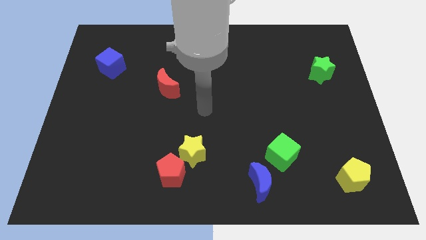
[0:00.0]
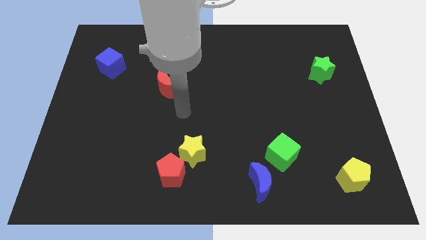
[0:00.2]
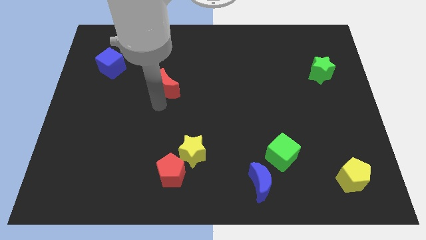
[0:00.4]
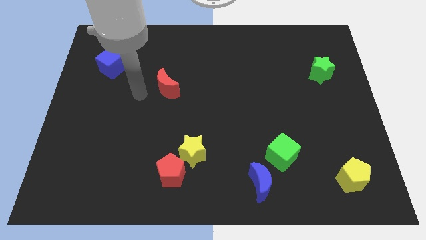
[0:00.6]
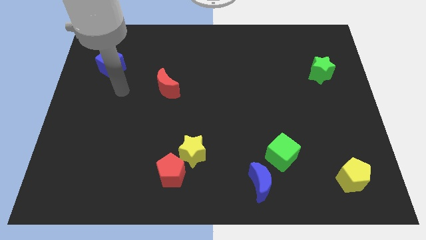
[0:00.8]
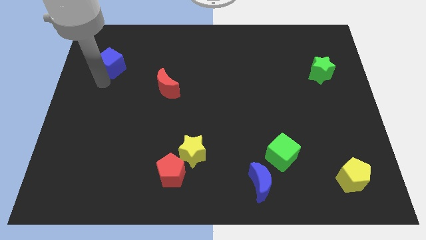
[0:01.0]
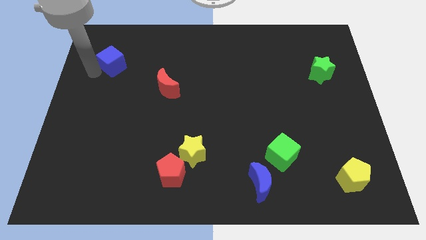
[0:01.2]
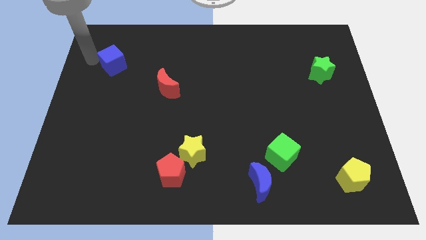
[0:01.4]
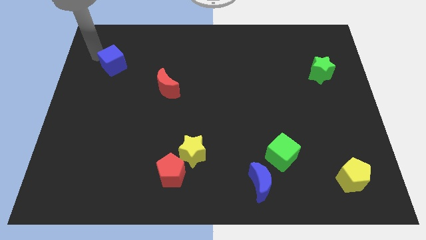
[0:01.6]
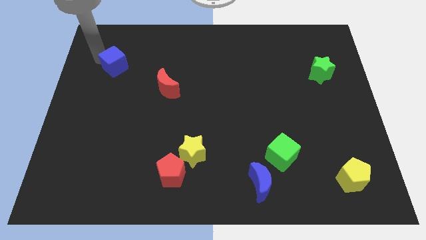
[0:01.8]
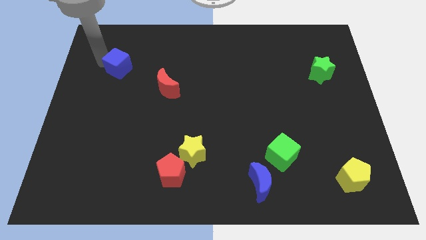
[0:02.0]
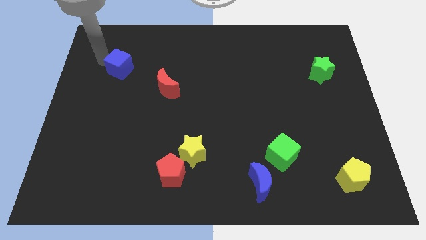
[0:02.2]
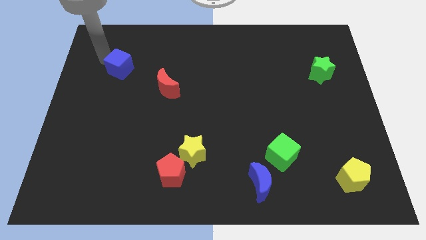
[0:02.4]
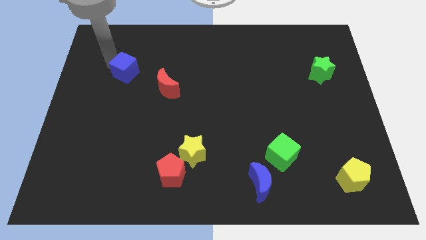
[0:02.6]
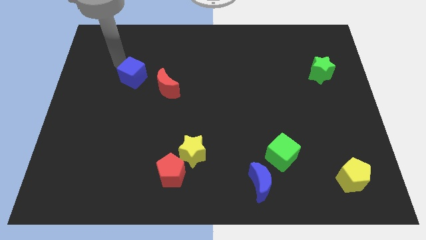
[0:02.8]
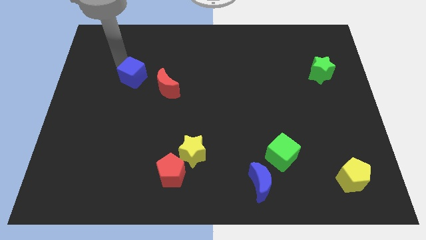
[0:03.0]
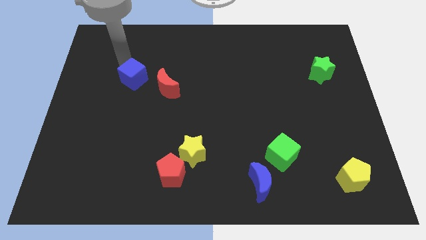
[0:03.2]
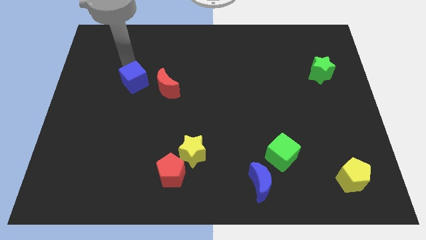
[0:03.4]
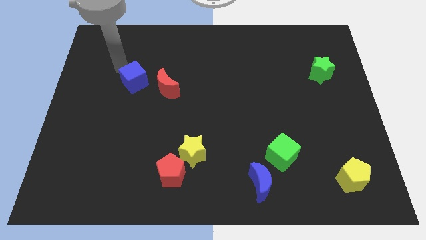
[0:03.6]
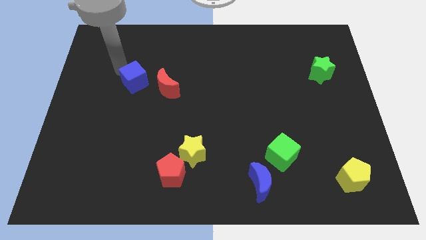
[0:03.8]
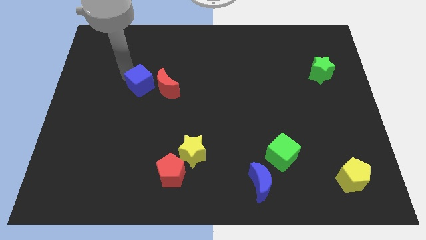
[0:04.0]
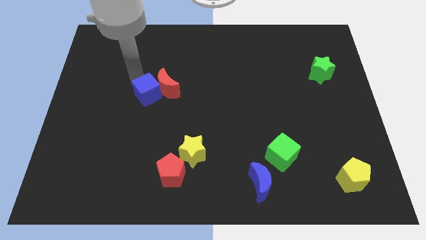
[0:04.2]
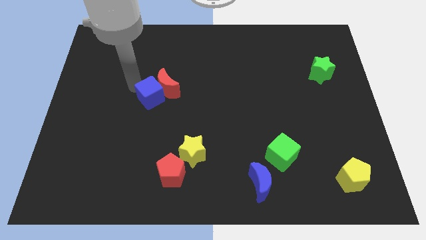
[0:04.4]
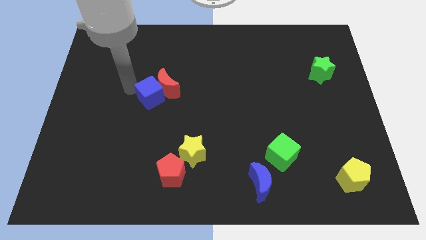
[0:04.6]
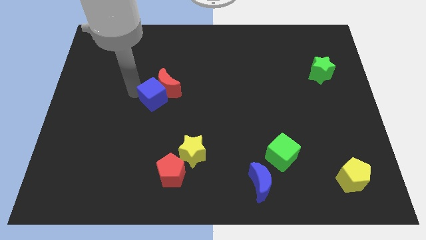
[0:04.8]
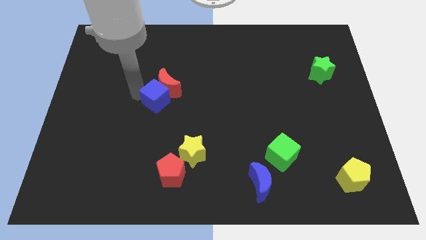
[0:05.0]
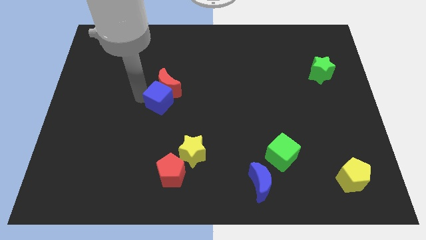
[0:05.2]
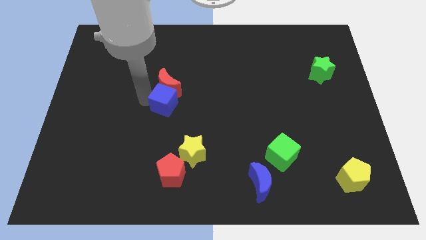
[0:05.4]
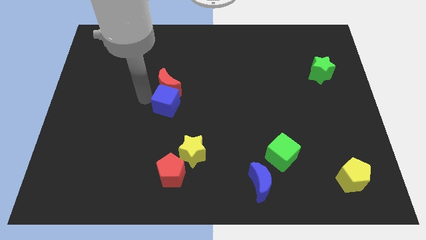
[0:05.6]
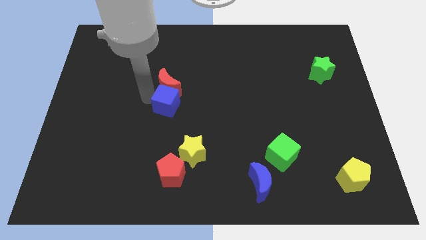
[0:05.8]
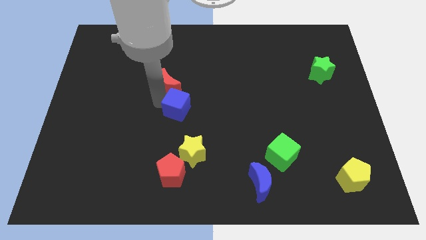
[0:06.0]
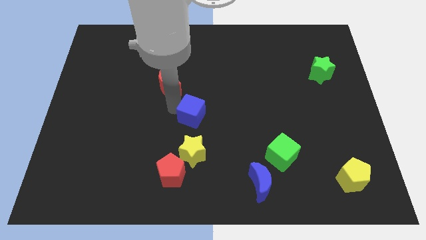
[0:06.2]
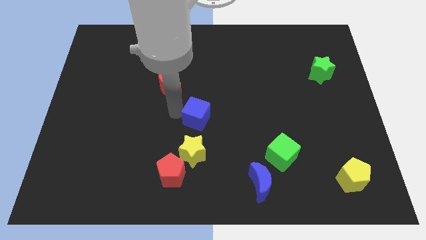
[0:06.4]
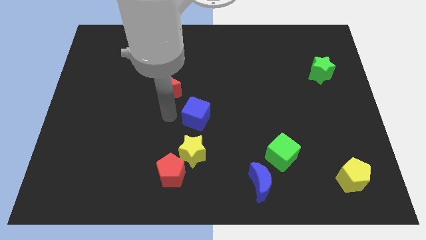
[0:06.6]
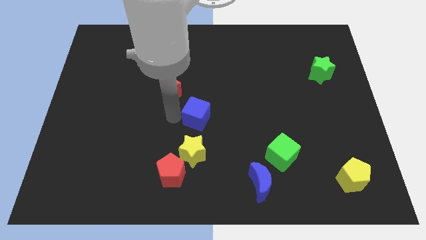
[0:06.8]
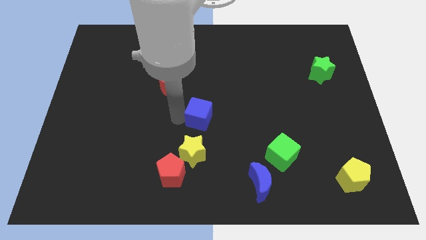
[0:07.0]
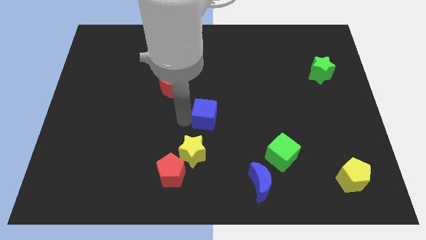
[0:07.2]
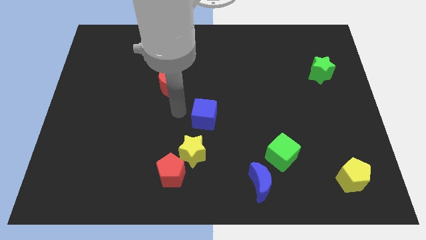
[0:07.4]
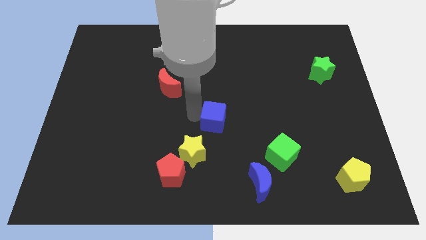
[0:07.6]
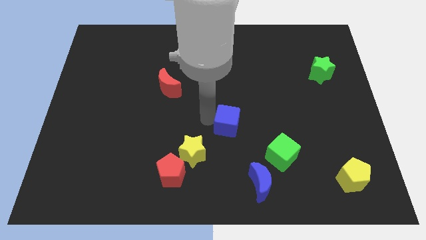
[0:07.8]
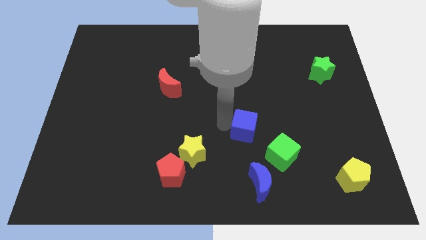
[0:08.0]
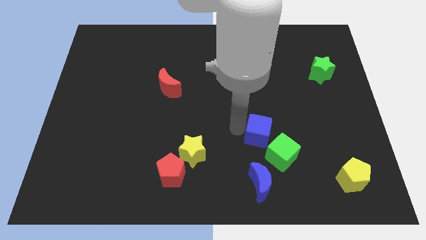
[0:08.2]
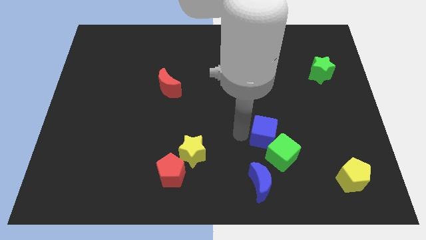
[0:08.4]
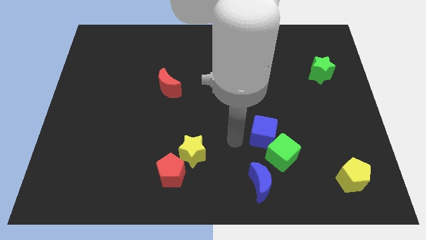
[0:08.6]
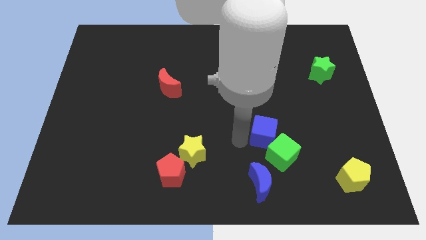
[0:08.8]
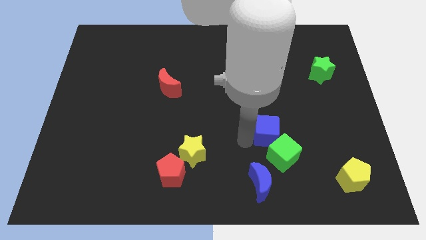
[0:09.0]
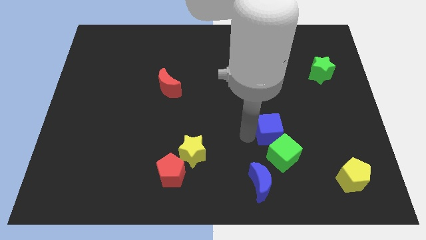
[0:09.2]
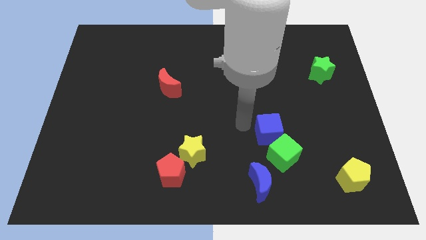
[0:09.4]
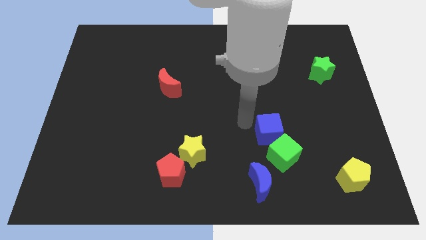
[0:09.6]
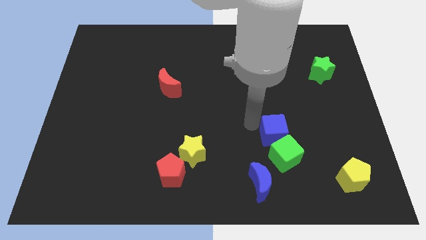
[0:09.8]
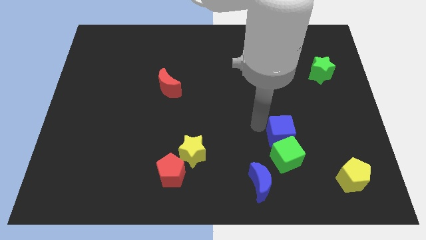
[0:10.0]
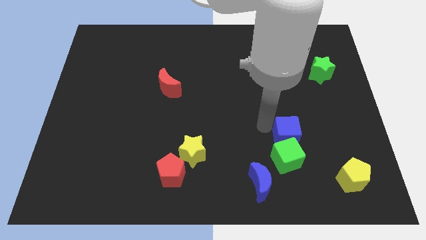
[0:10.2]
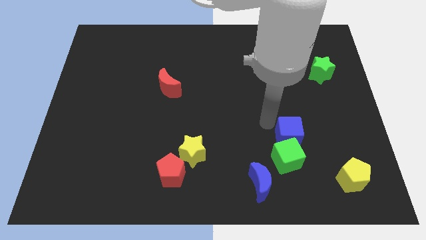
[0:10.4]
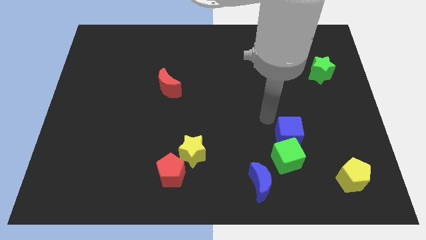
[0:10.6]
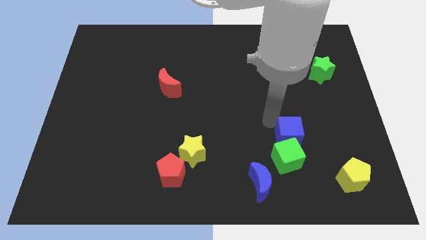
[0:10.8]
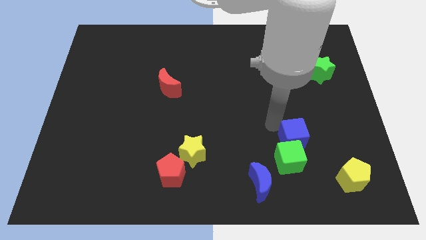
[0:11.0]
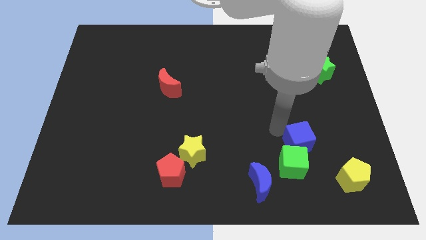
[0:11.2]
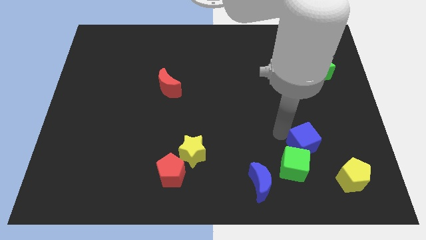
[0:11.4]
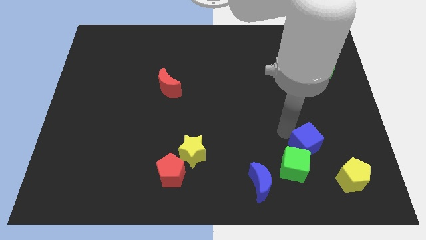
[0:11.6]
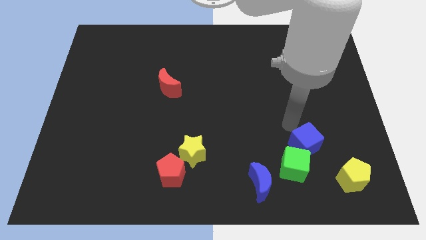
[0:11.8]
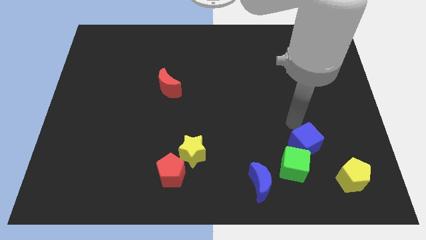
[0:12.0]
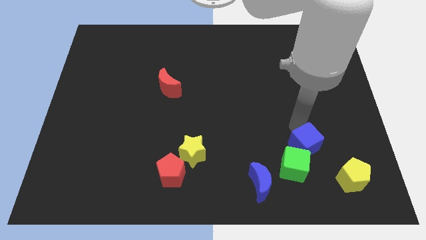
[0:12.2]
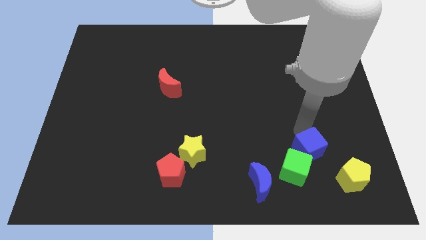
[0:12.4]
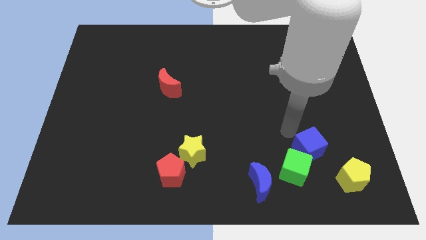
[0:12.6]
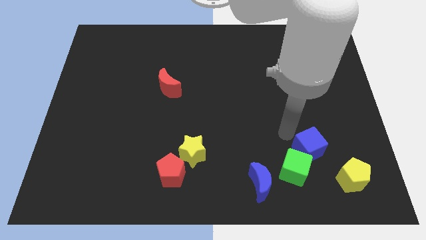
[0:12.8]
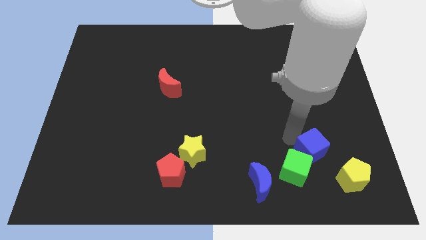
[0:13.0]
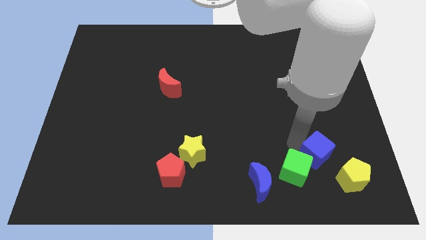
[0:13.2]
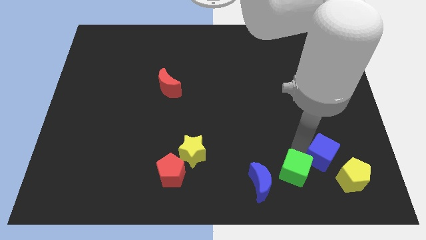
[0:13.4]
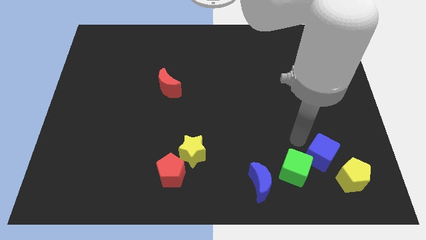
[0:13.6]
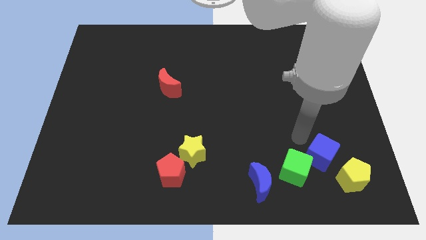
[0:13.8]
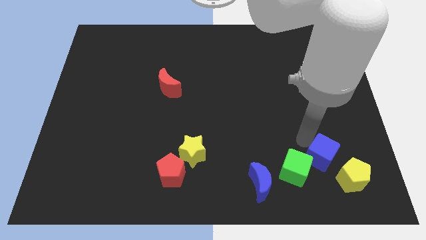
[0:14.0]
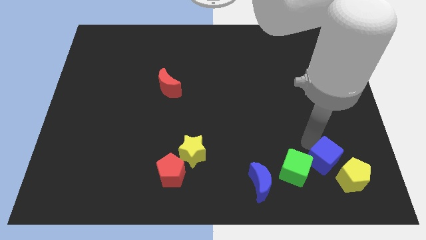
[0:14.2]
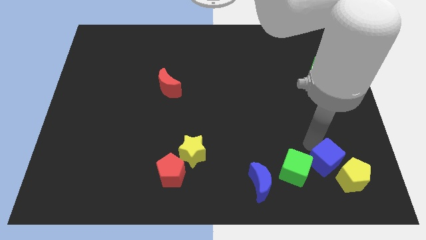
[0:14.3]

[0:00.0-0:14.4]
move the blue cube close to the yellow pentagon

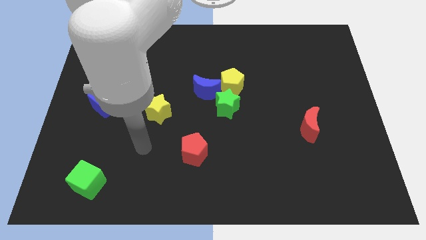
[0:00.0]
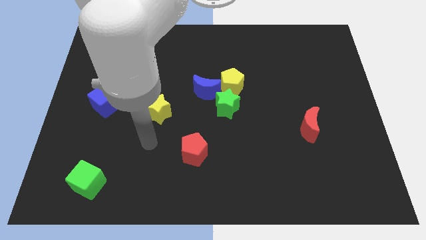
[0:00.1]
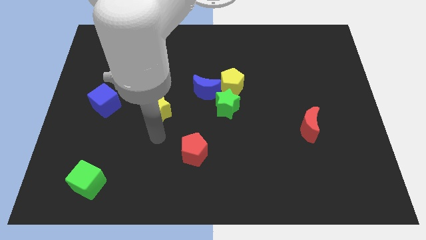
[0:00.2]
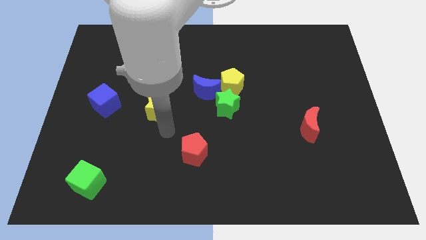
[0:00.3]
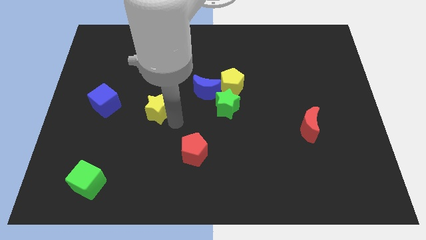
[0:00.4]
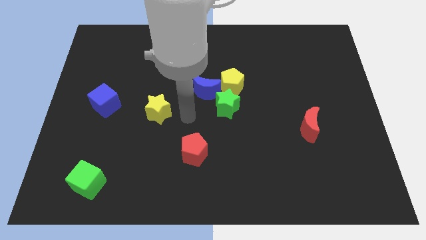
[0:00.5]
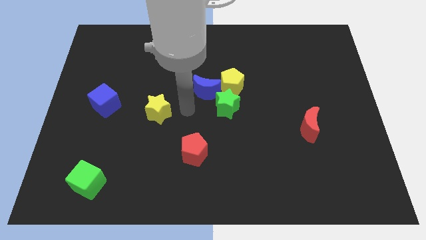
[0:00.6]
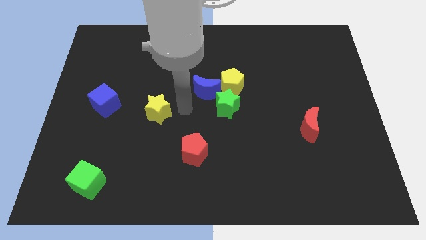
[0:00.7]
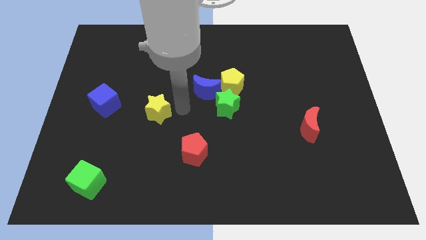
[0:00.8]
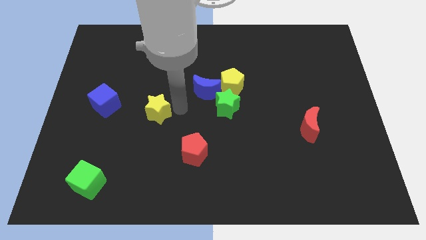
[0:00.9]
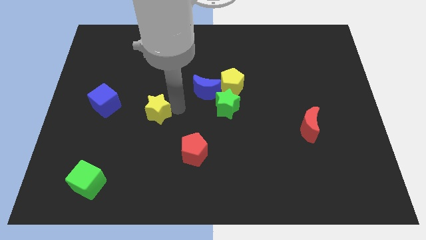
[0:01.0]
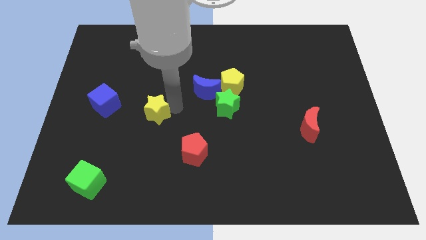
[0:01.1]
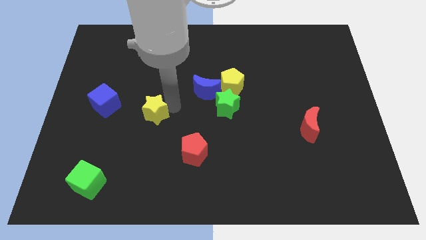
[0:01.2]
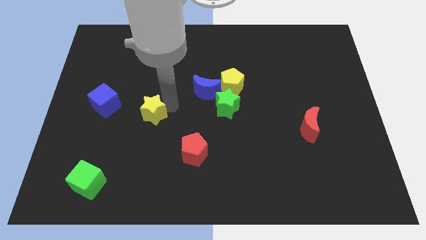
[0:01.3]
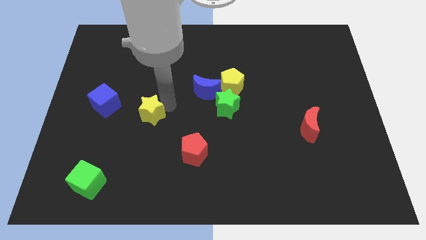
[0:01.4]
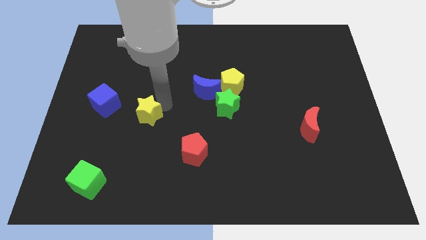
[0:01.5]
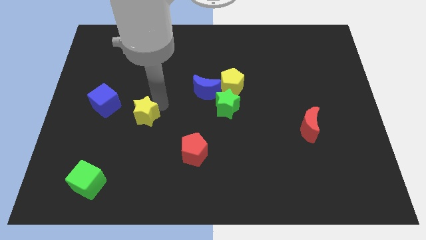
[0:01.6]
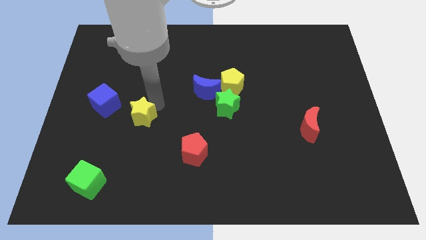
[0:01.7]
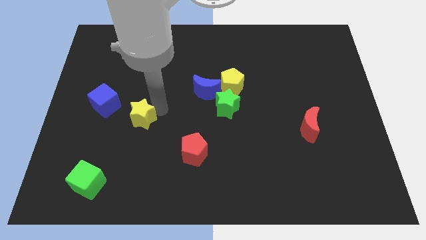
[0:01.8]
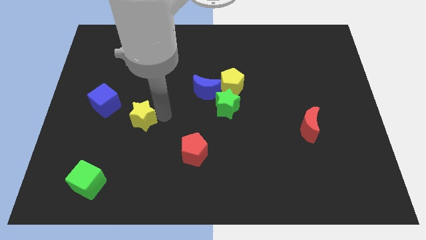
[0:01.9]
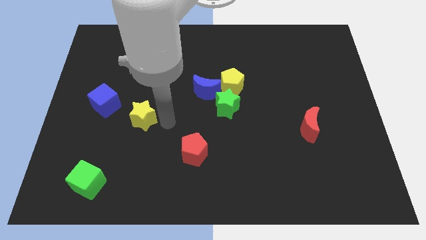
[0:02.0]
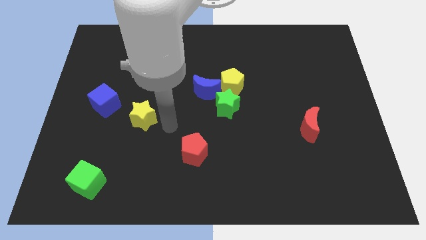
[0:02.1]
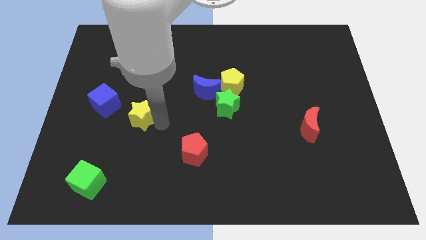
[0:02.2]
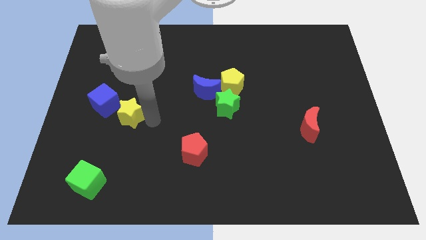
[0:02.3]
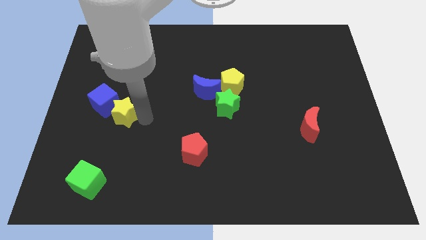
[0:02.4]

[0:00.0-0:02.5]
put the yellow star to the blue cube
